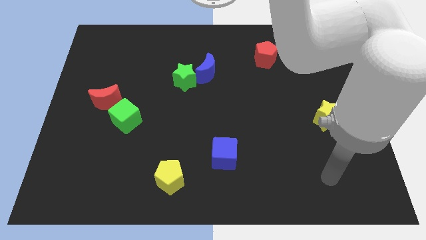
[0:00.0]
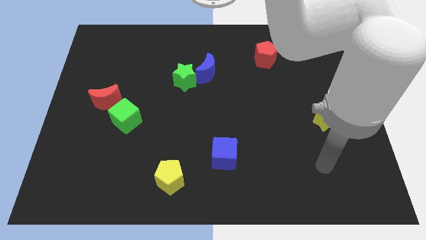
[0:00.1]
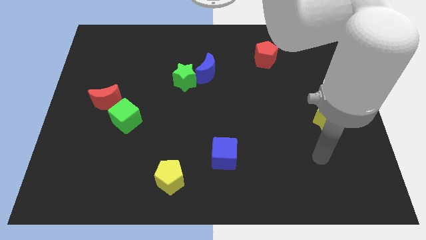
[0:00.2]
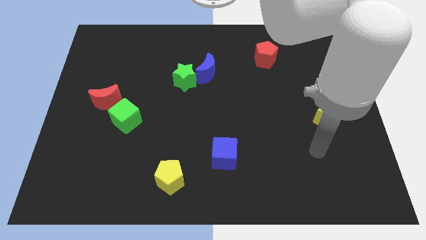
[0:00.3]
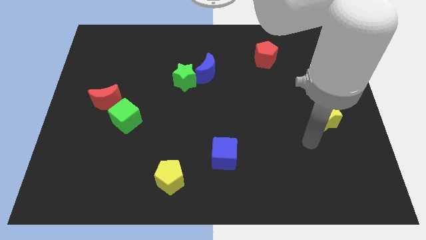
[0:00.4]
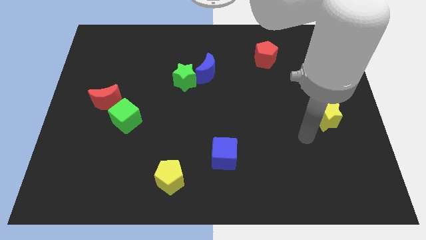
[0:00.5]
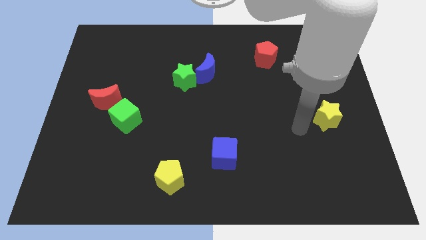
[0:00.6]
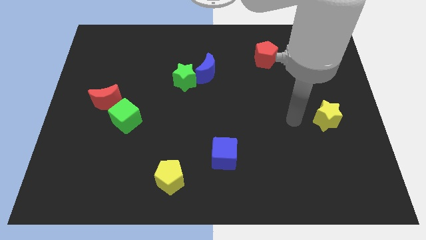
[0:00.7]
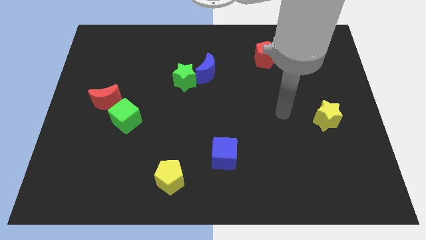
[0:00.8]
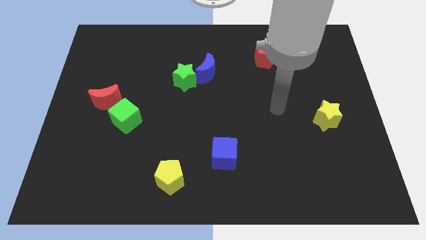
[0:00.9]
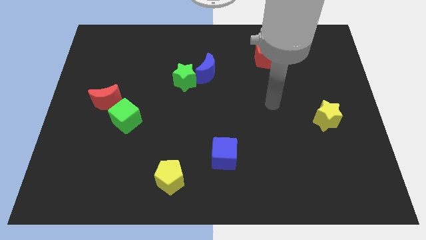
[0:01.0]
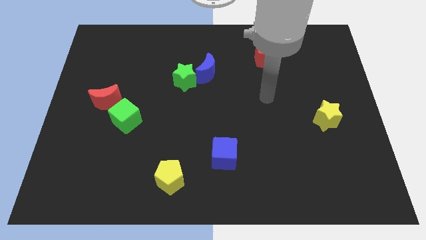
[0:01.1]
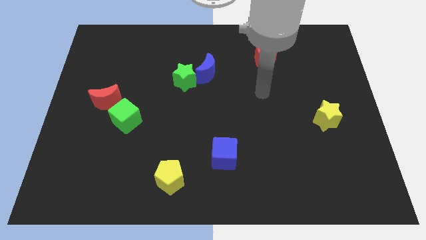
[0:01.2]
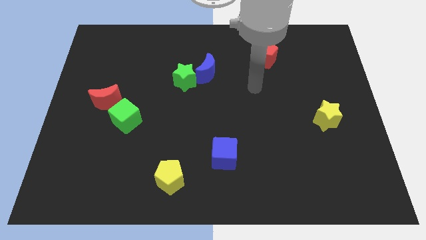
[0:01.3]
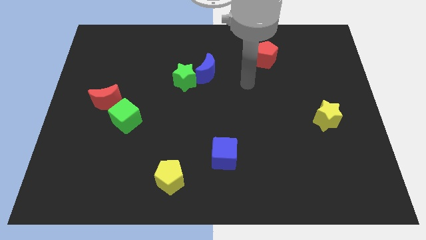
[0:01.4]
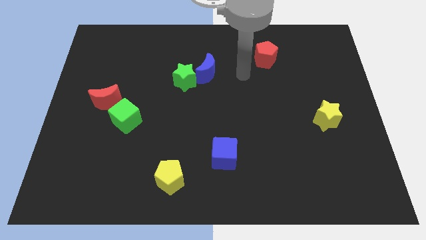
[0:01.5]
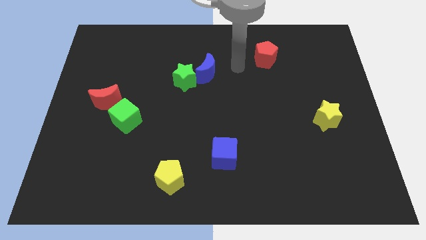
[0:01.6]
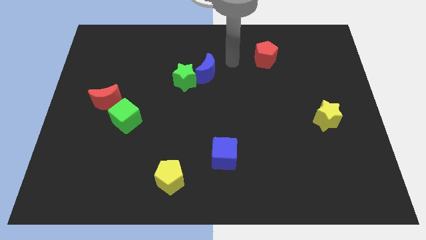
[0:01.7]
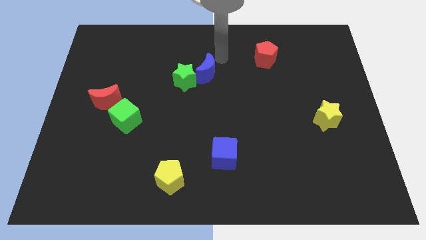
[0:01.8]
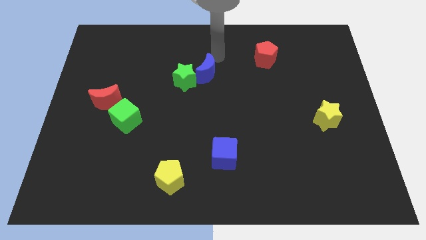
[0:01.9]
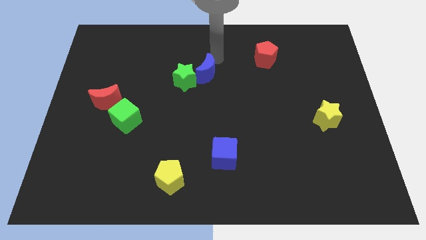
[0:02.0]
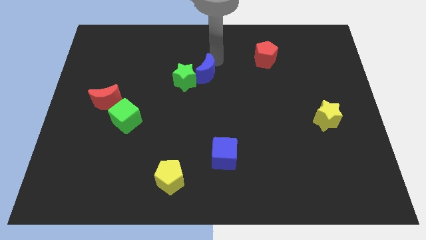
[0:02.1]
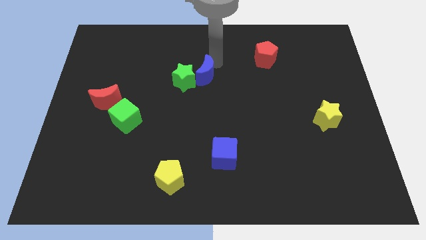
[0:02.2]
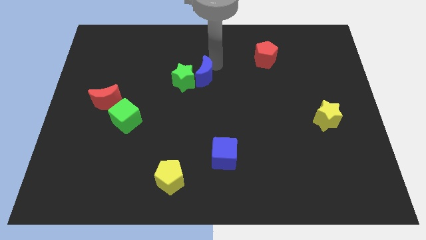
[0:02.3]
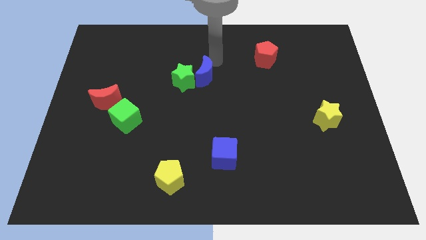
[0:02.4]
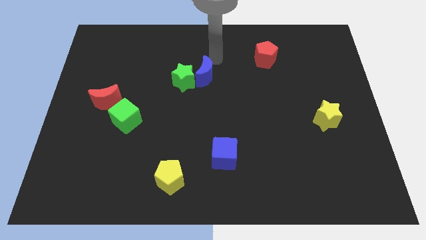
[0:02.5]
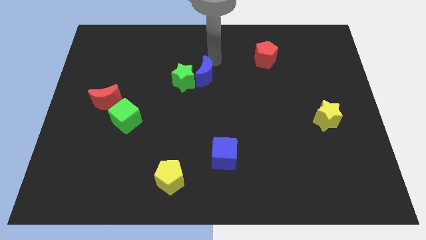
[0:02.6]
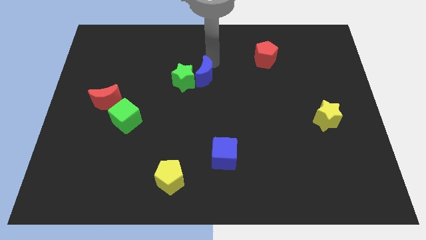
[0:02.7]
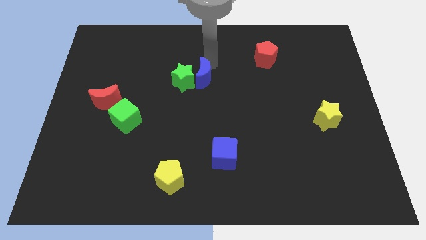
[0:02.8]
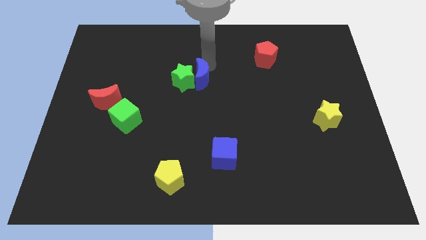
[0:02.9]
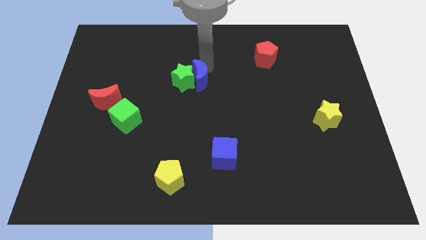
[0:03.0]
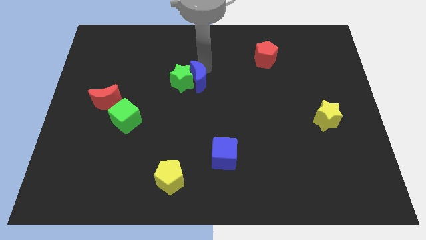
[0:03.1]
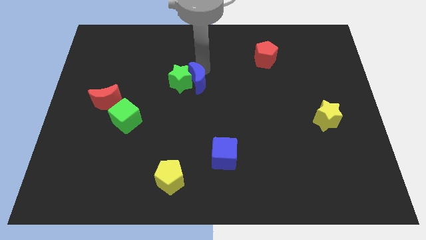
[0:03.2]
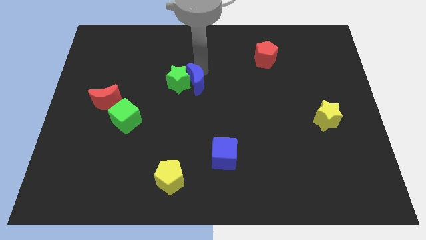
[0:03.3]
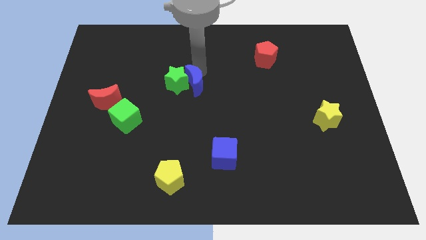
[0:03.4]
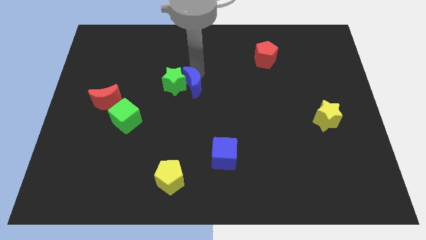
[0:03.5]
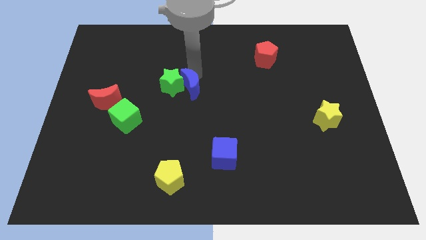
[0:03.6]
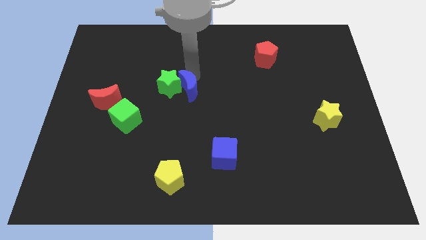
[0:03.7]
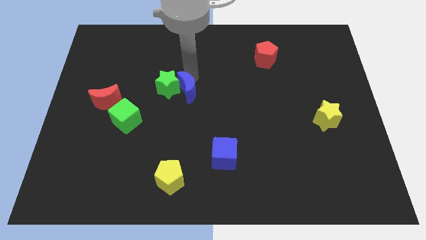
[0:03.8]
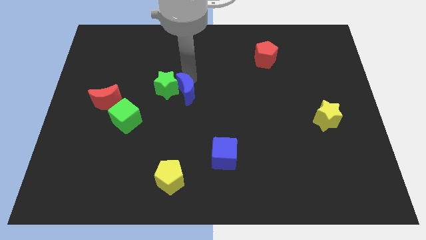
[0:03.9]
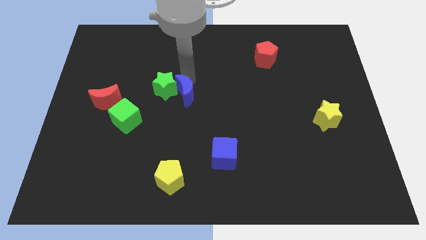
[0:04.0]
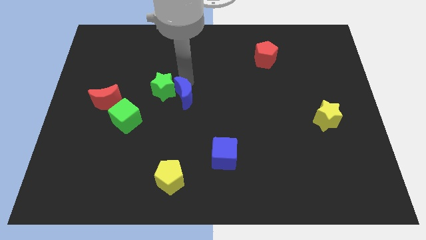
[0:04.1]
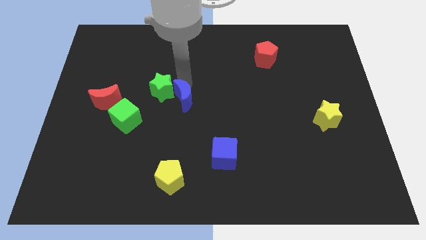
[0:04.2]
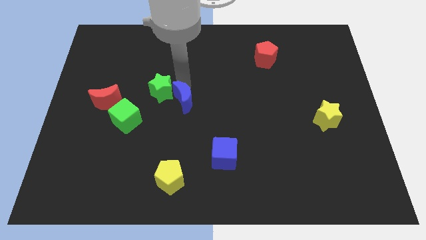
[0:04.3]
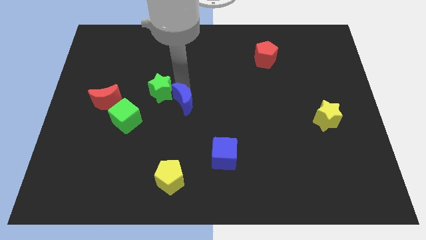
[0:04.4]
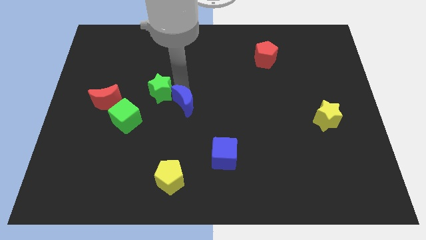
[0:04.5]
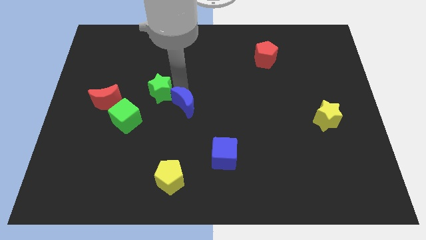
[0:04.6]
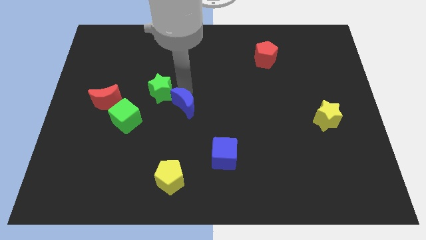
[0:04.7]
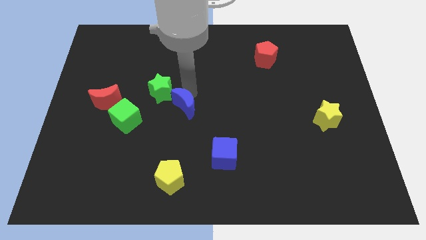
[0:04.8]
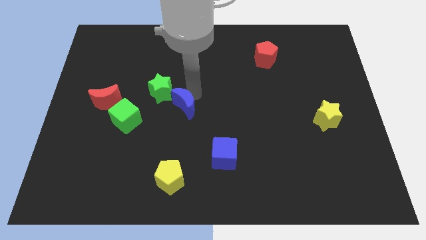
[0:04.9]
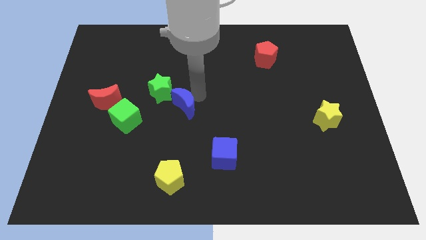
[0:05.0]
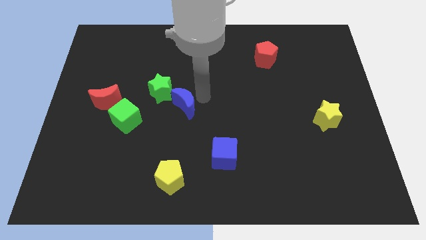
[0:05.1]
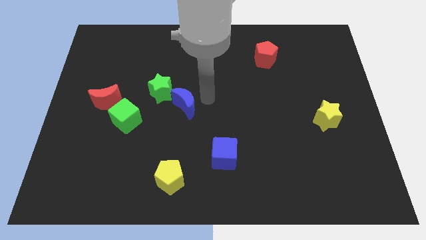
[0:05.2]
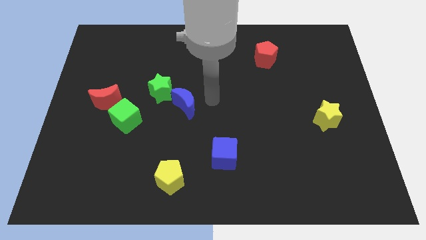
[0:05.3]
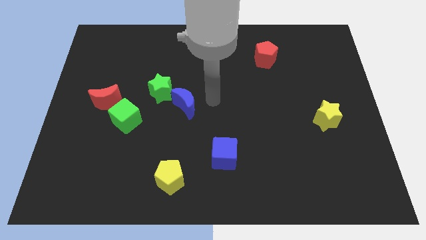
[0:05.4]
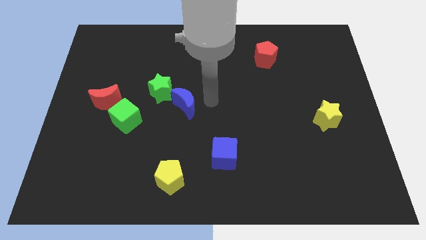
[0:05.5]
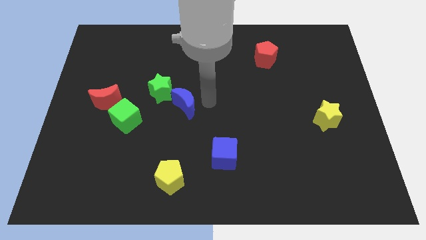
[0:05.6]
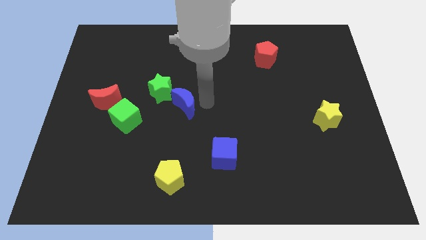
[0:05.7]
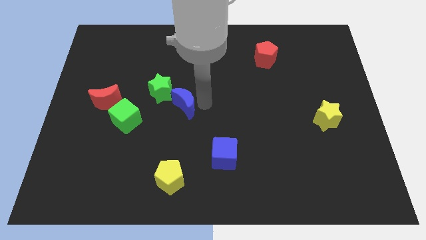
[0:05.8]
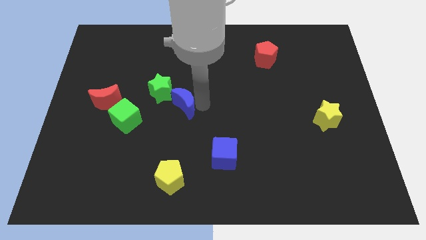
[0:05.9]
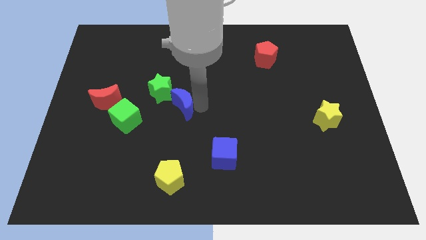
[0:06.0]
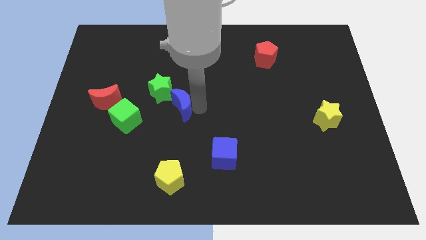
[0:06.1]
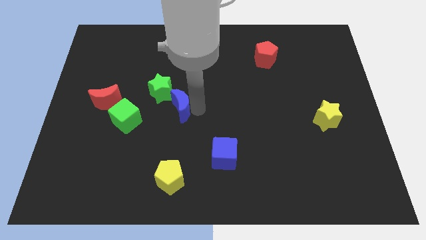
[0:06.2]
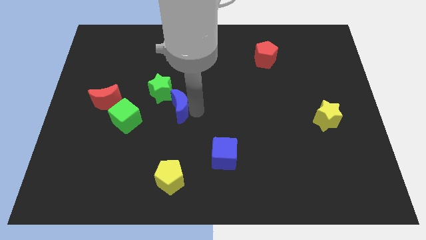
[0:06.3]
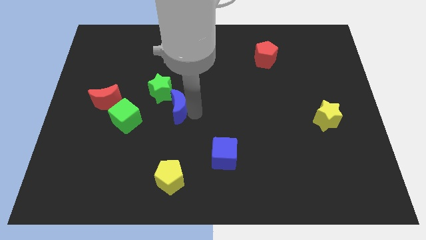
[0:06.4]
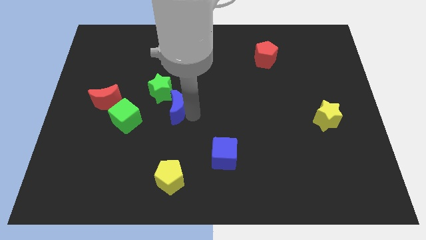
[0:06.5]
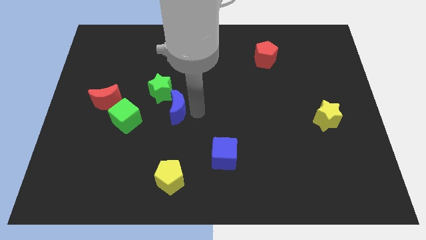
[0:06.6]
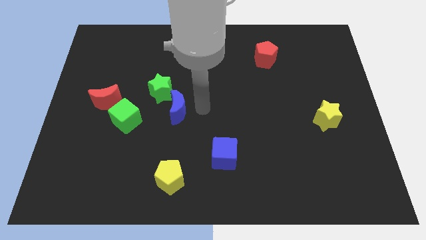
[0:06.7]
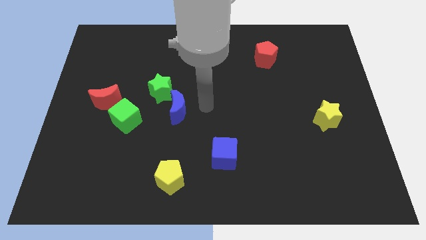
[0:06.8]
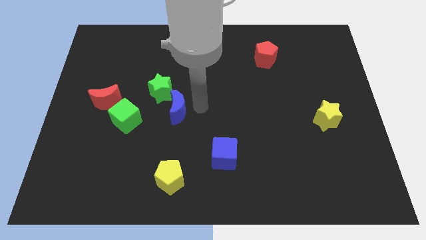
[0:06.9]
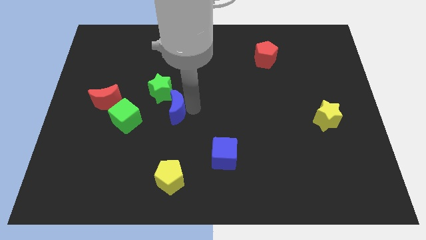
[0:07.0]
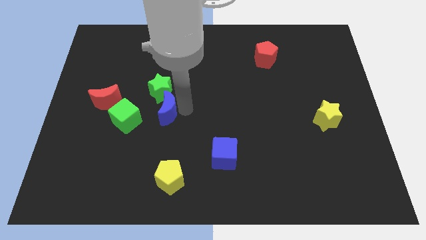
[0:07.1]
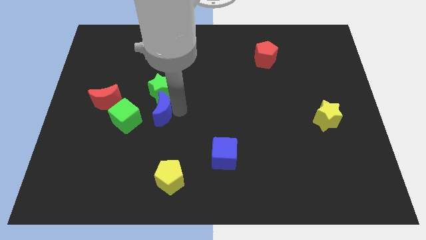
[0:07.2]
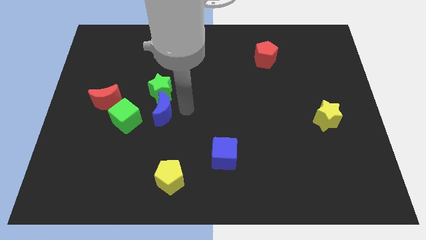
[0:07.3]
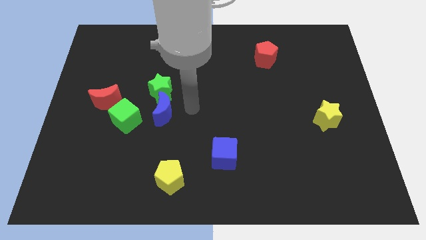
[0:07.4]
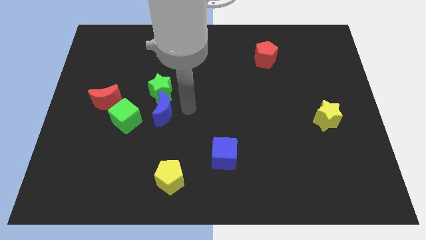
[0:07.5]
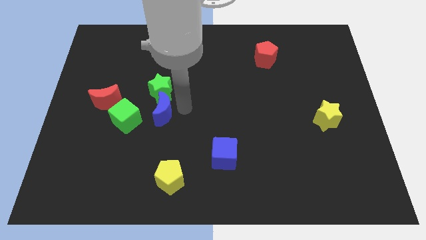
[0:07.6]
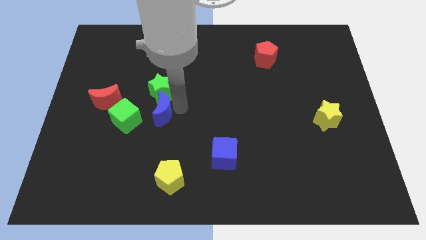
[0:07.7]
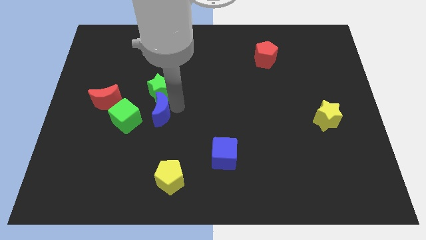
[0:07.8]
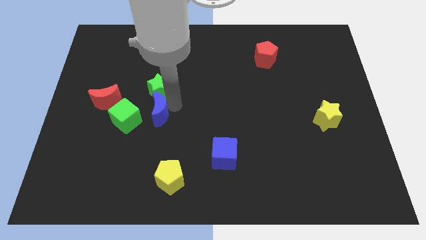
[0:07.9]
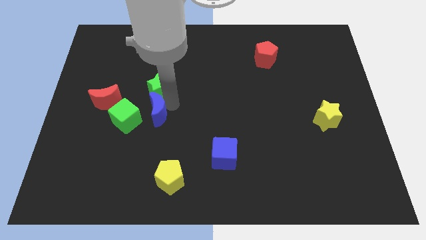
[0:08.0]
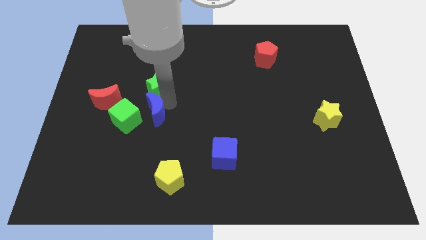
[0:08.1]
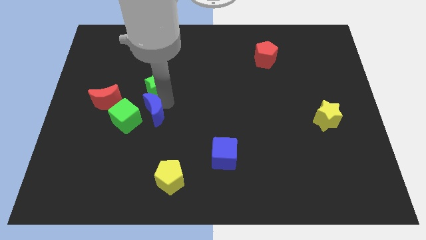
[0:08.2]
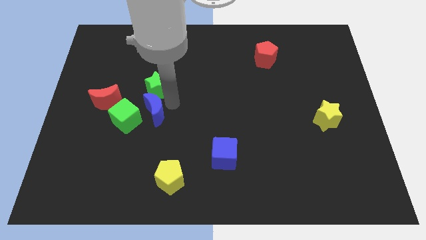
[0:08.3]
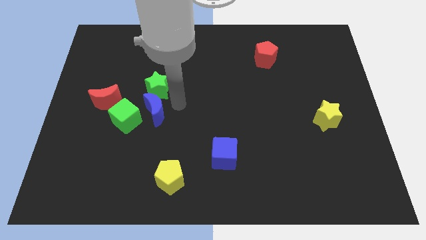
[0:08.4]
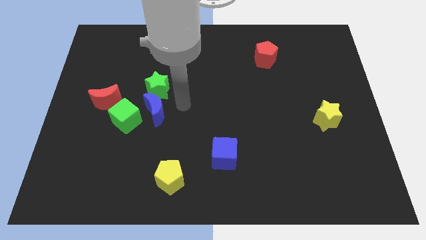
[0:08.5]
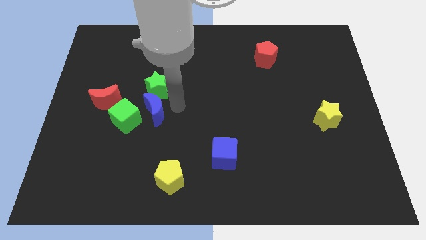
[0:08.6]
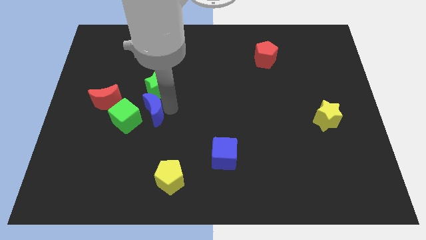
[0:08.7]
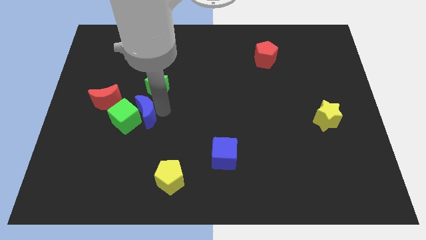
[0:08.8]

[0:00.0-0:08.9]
slide the blue moon next to the green cube
